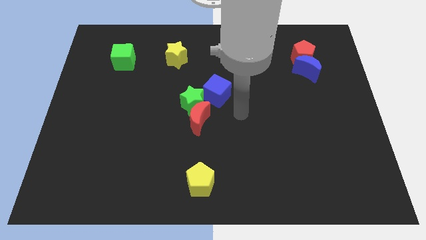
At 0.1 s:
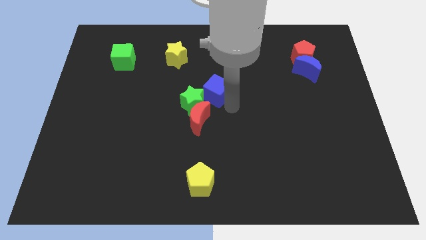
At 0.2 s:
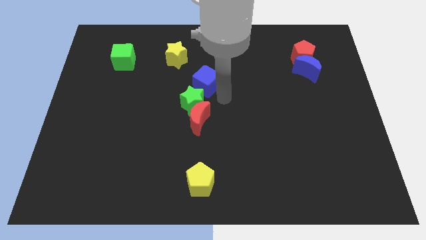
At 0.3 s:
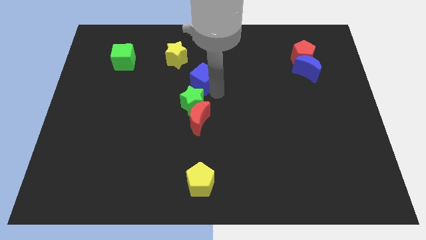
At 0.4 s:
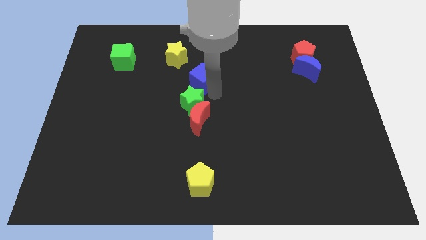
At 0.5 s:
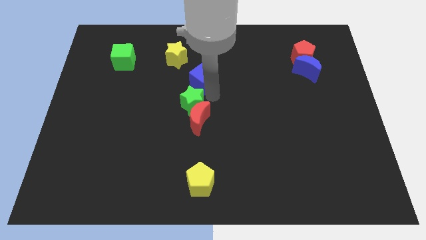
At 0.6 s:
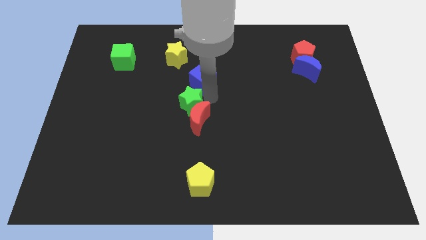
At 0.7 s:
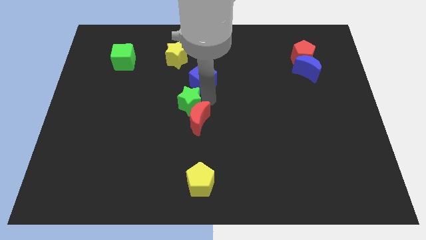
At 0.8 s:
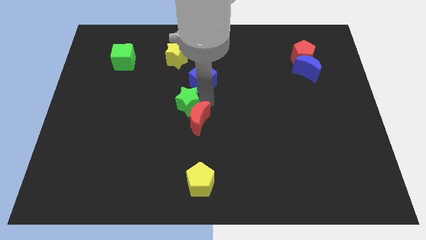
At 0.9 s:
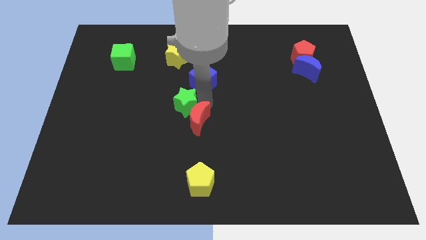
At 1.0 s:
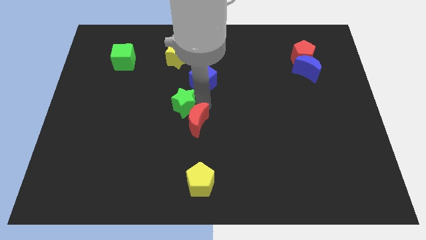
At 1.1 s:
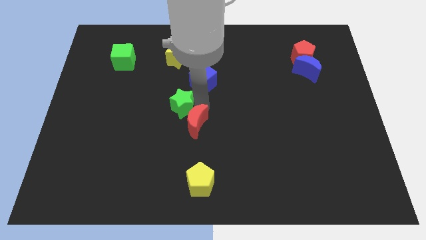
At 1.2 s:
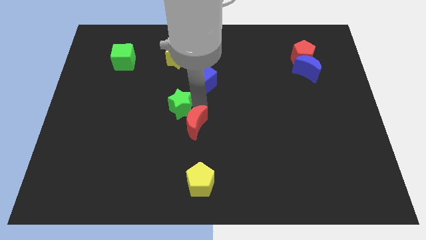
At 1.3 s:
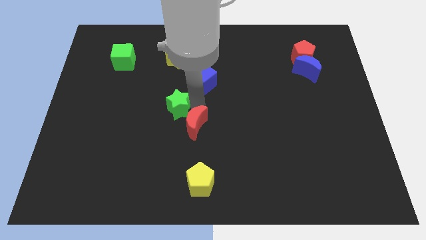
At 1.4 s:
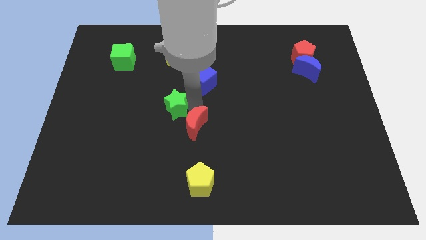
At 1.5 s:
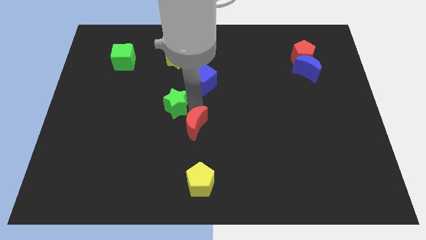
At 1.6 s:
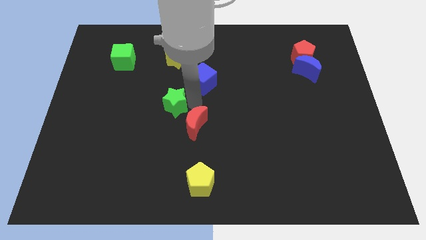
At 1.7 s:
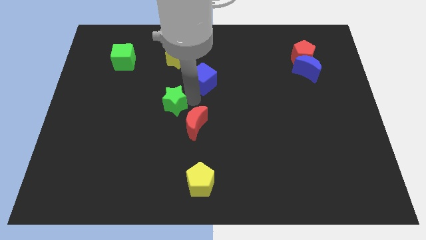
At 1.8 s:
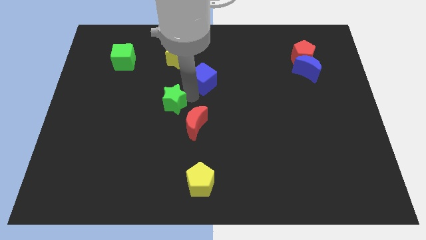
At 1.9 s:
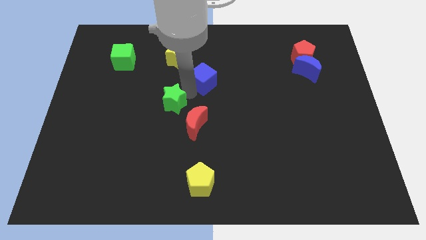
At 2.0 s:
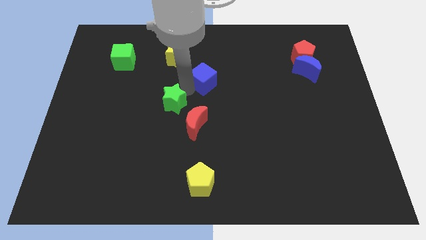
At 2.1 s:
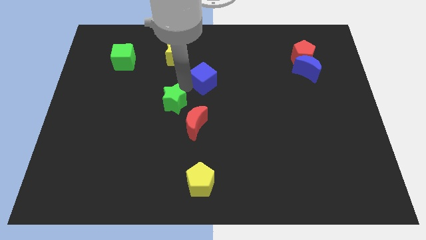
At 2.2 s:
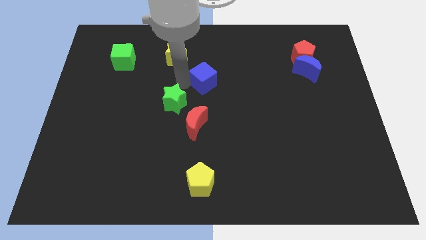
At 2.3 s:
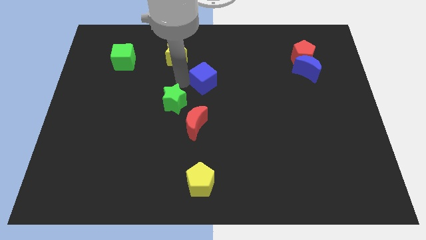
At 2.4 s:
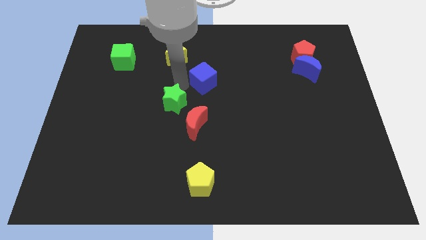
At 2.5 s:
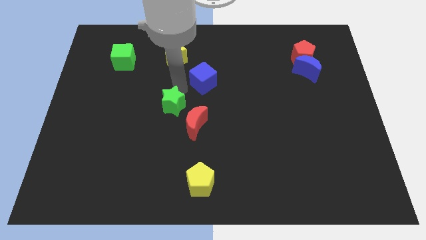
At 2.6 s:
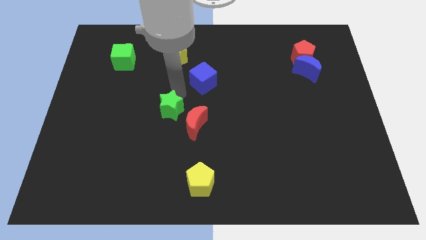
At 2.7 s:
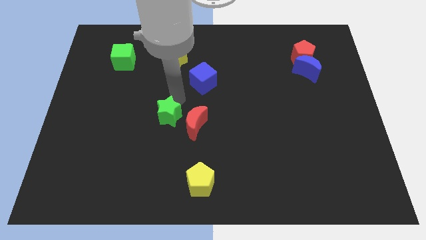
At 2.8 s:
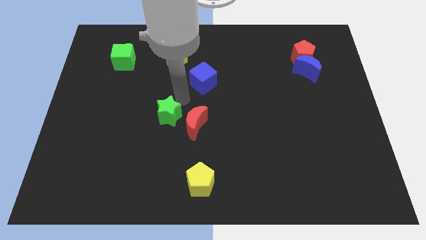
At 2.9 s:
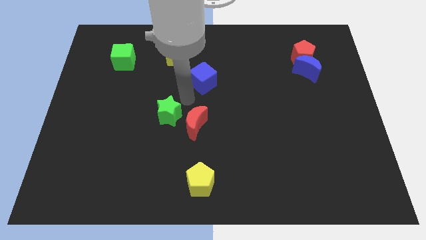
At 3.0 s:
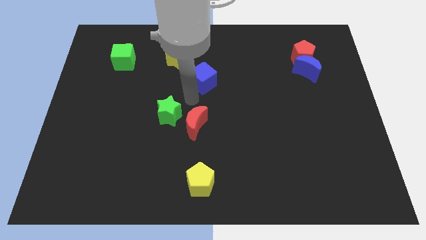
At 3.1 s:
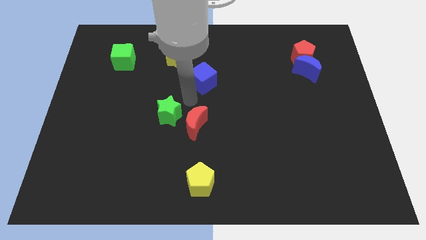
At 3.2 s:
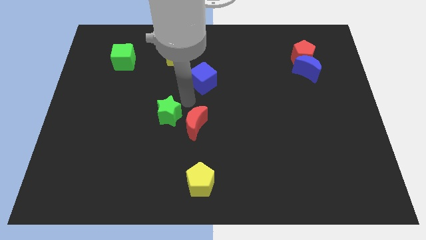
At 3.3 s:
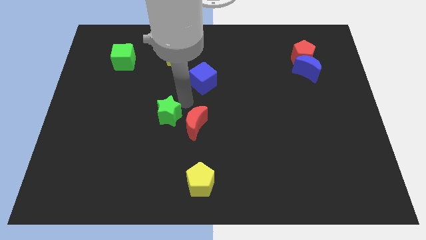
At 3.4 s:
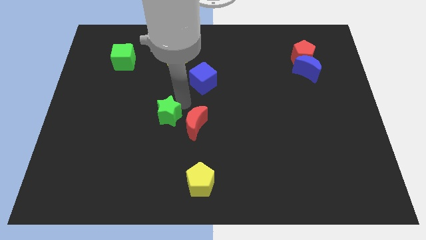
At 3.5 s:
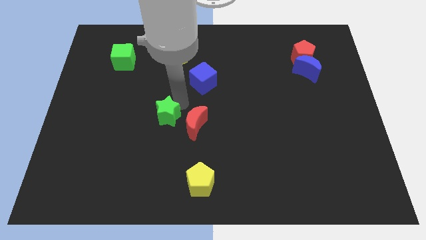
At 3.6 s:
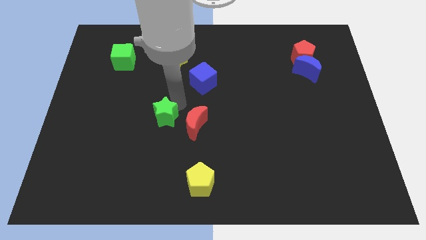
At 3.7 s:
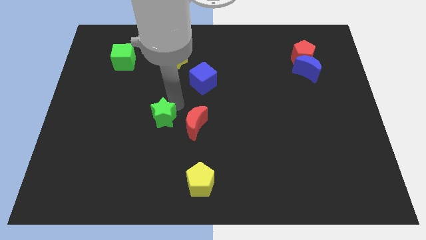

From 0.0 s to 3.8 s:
push the green star down and to the left slightly

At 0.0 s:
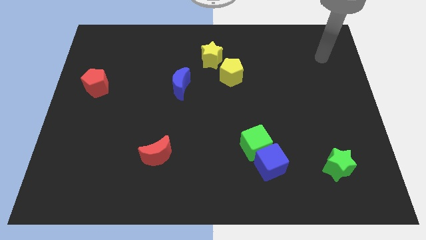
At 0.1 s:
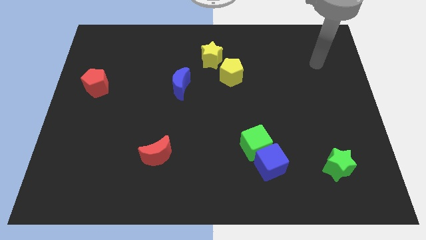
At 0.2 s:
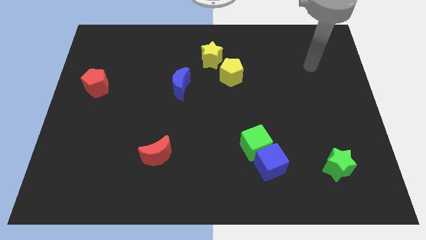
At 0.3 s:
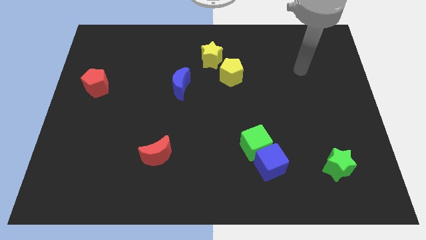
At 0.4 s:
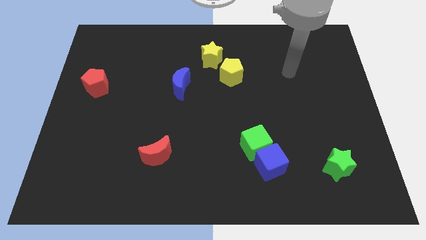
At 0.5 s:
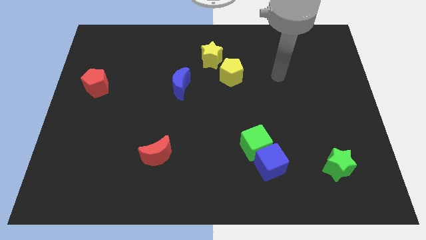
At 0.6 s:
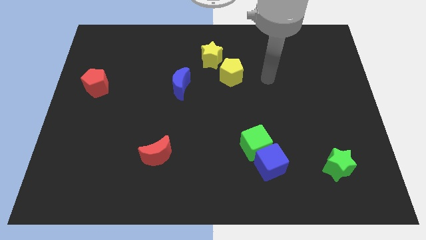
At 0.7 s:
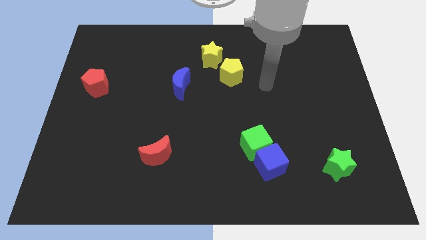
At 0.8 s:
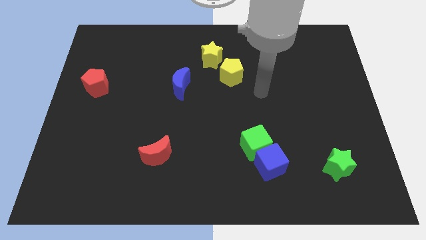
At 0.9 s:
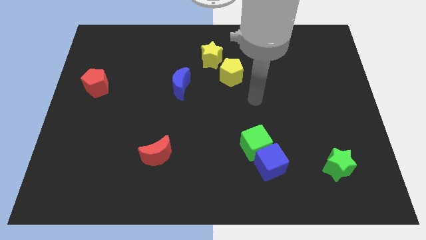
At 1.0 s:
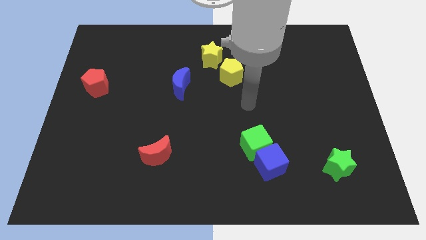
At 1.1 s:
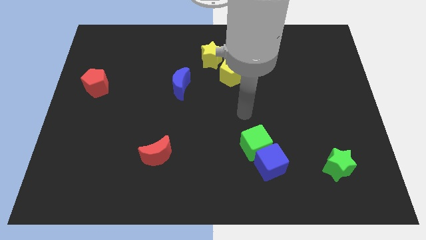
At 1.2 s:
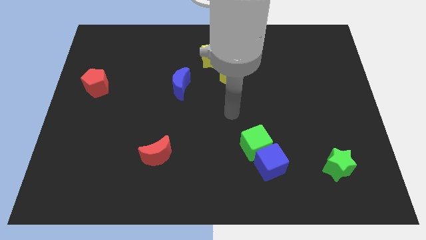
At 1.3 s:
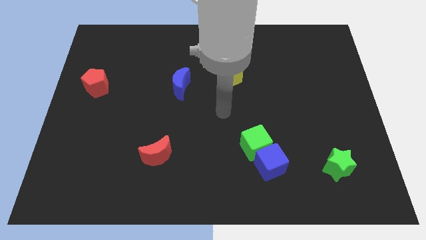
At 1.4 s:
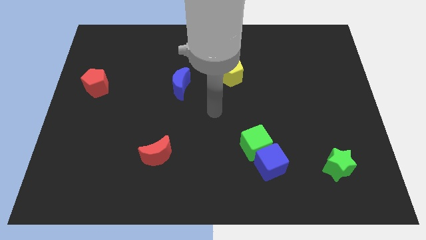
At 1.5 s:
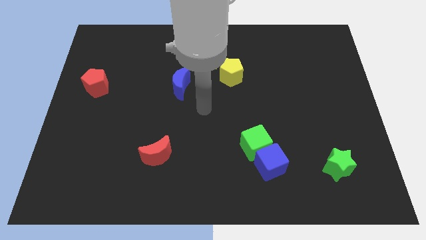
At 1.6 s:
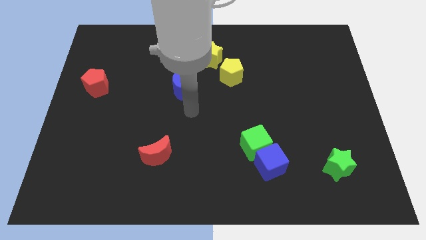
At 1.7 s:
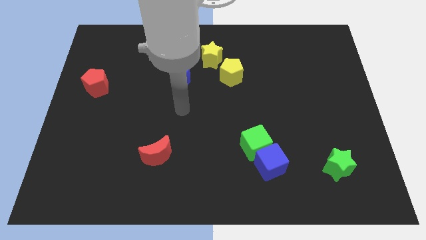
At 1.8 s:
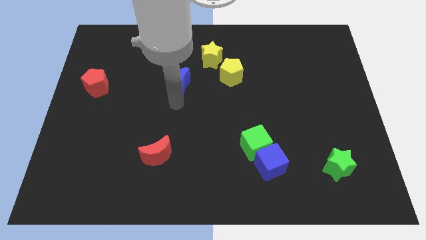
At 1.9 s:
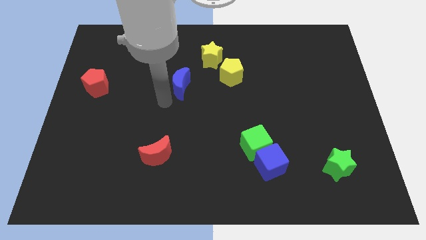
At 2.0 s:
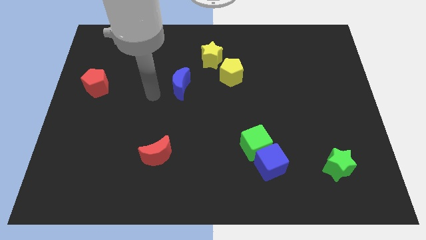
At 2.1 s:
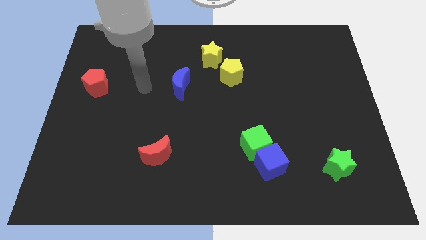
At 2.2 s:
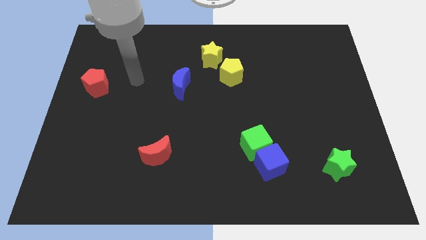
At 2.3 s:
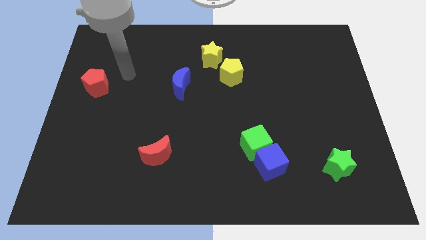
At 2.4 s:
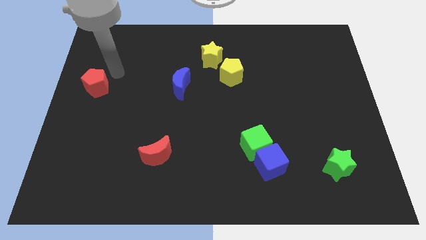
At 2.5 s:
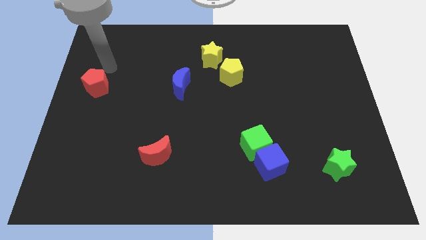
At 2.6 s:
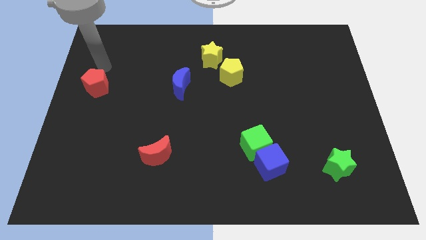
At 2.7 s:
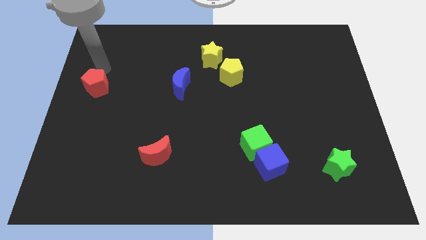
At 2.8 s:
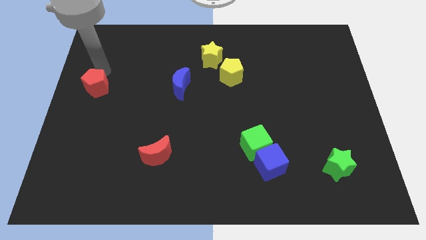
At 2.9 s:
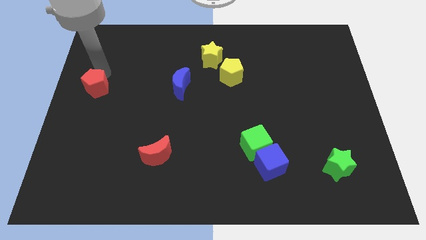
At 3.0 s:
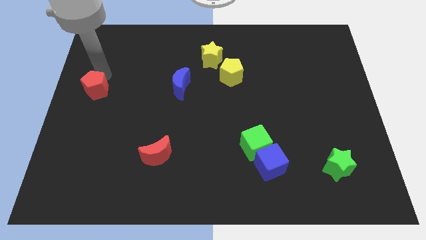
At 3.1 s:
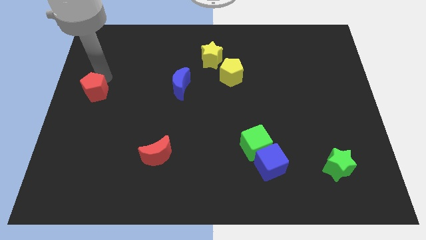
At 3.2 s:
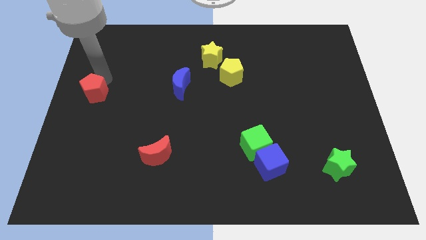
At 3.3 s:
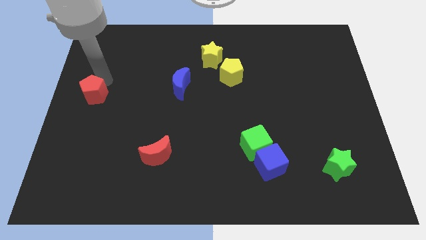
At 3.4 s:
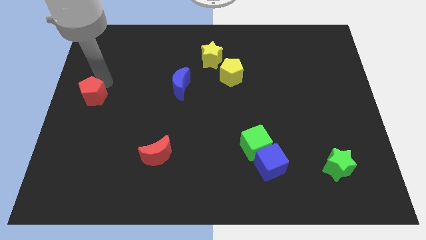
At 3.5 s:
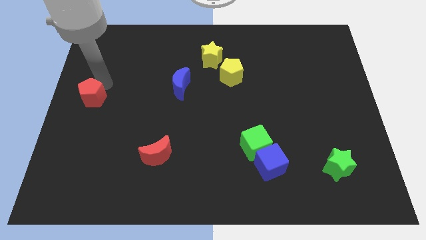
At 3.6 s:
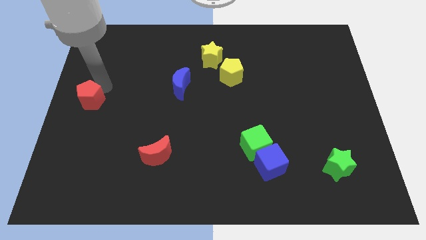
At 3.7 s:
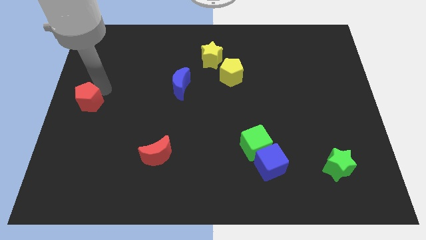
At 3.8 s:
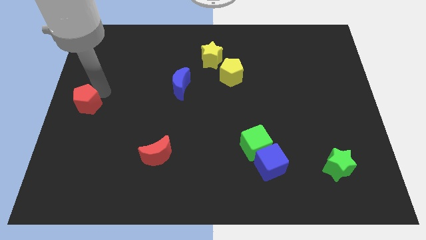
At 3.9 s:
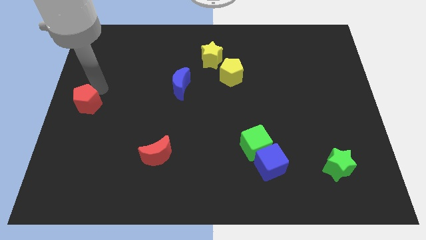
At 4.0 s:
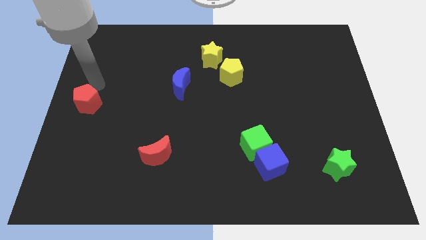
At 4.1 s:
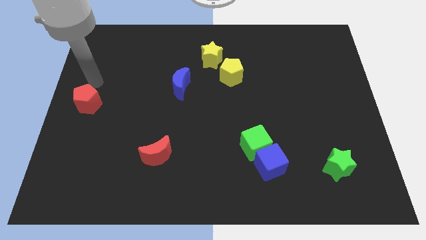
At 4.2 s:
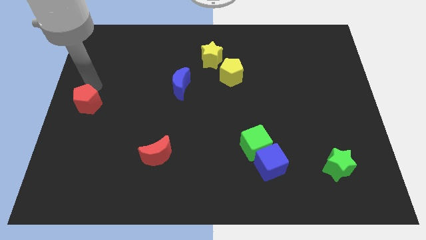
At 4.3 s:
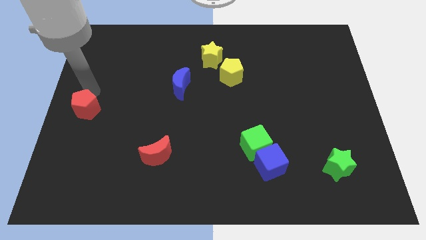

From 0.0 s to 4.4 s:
push the red pentagon slightly down

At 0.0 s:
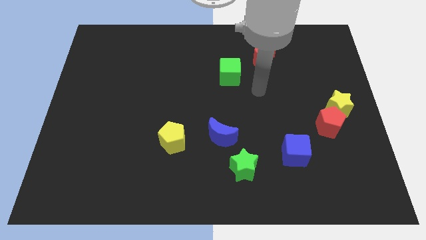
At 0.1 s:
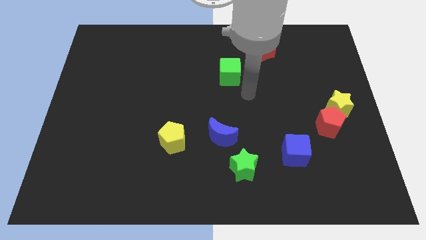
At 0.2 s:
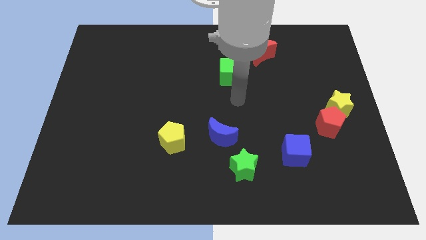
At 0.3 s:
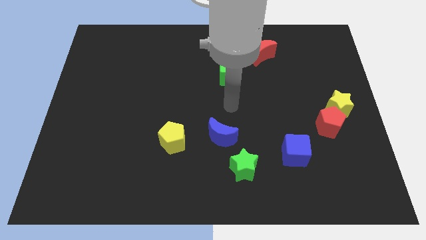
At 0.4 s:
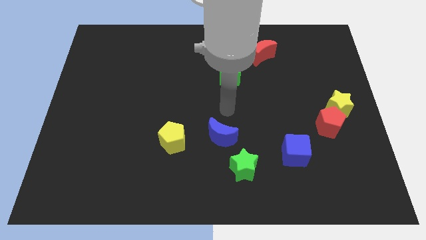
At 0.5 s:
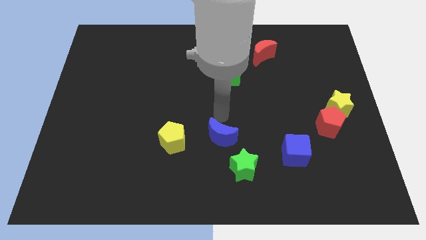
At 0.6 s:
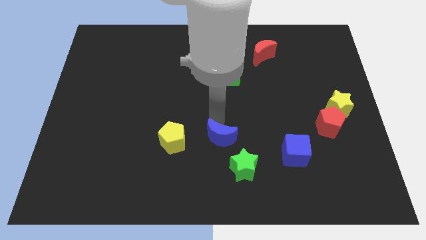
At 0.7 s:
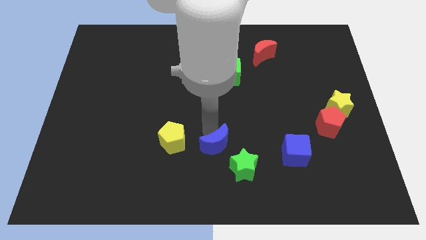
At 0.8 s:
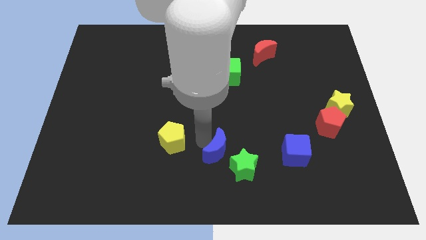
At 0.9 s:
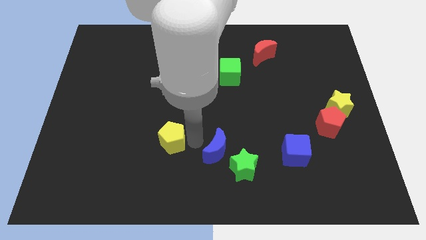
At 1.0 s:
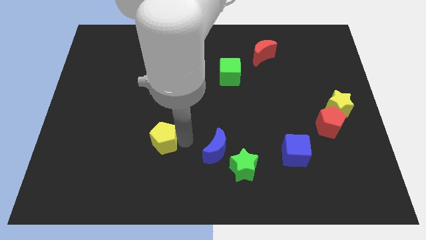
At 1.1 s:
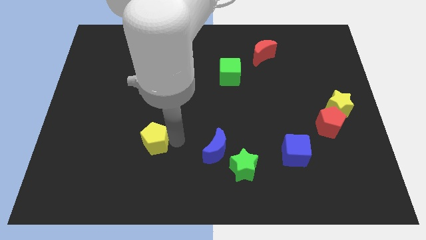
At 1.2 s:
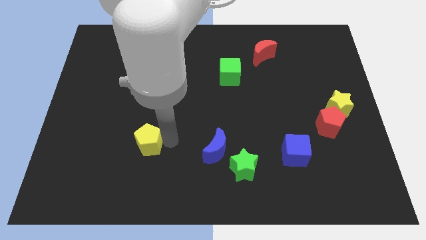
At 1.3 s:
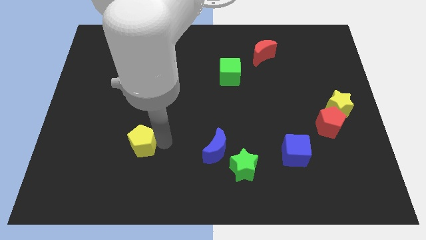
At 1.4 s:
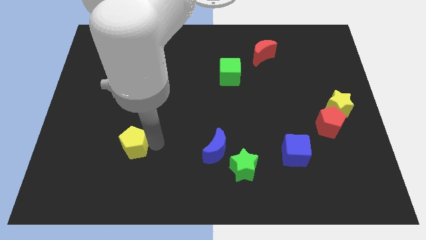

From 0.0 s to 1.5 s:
slightly move the yellow pentagon left
